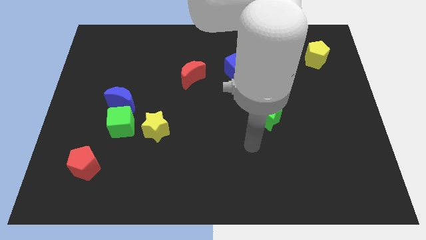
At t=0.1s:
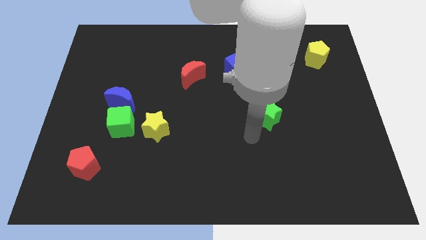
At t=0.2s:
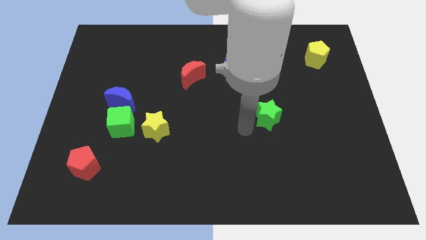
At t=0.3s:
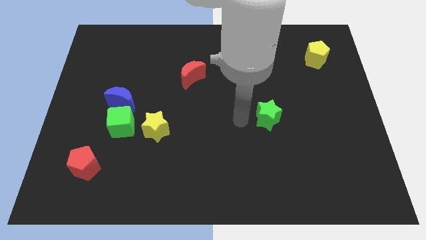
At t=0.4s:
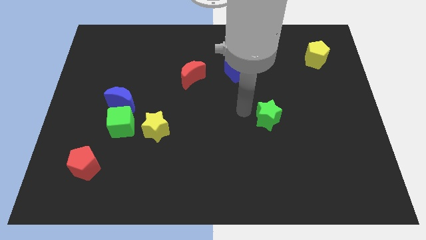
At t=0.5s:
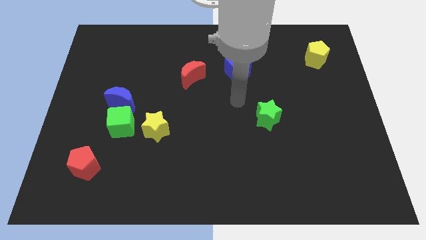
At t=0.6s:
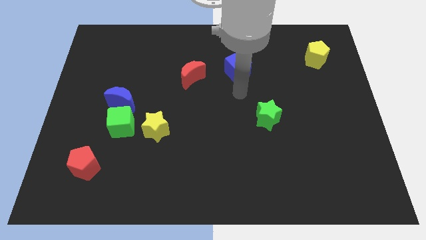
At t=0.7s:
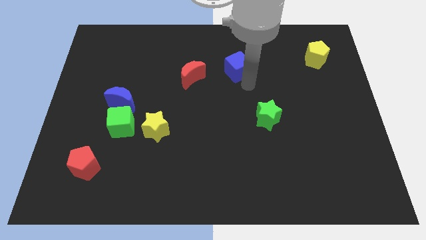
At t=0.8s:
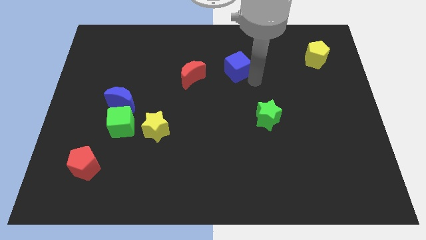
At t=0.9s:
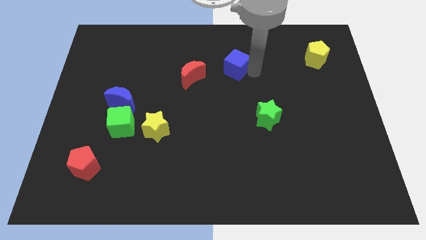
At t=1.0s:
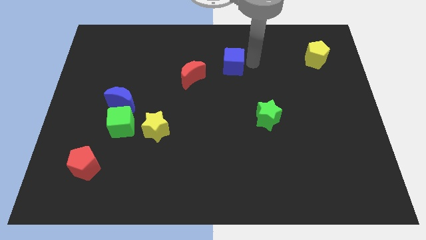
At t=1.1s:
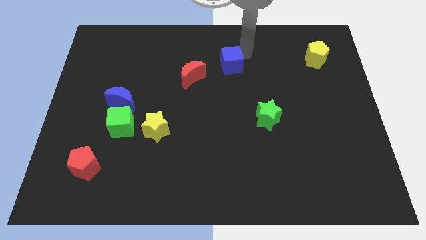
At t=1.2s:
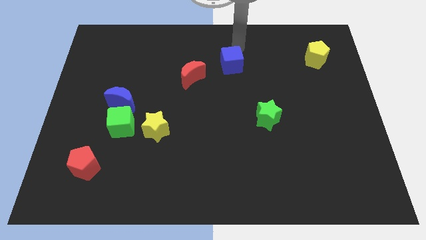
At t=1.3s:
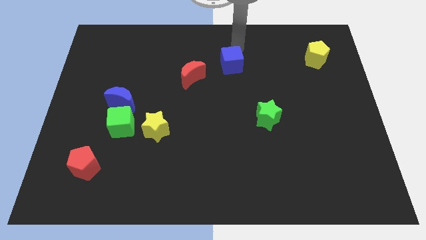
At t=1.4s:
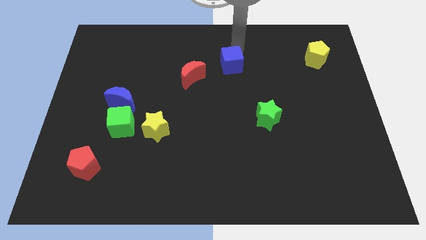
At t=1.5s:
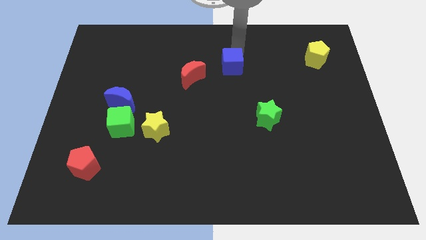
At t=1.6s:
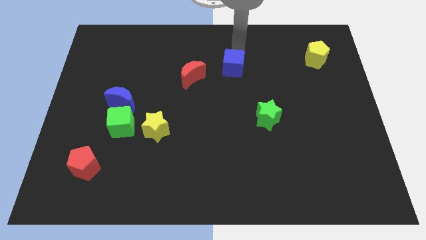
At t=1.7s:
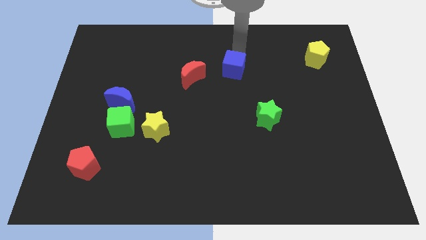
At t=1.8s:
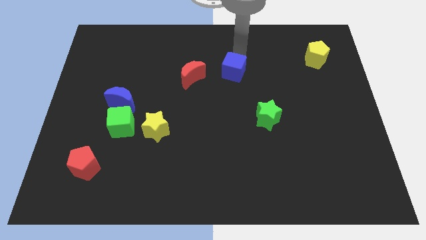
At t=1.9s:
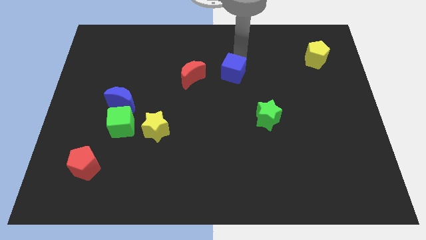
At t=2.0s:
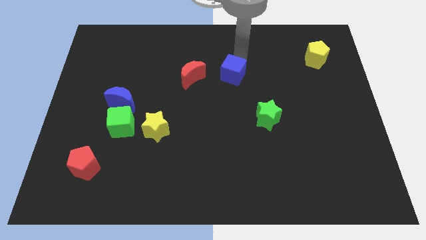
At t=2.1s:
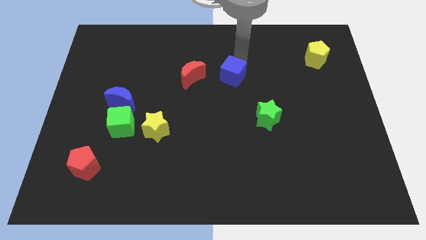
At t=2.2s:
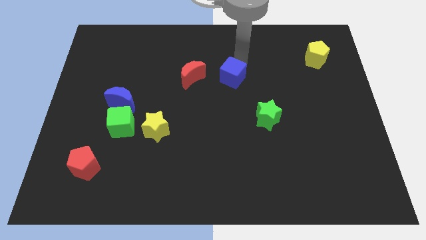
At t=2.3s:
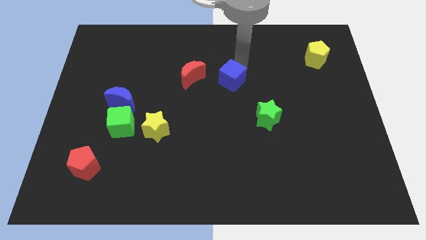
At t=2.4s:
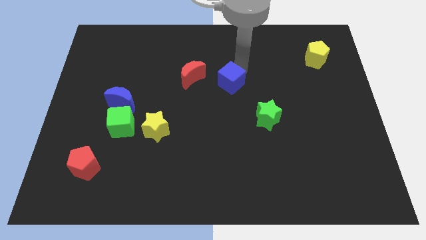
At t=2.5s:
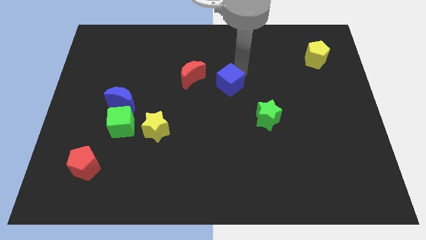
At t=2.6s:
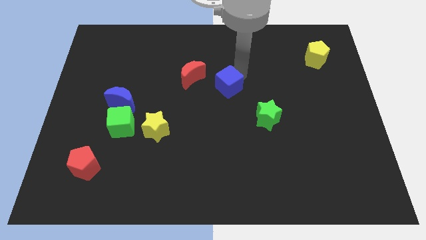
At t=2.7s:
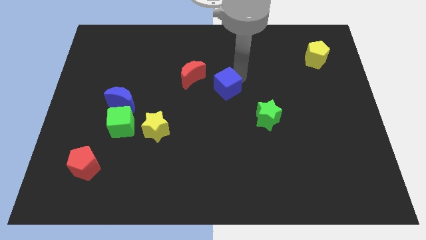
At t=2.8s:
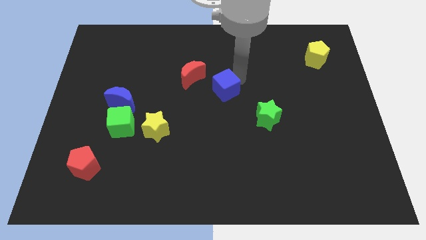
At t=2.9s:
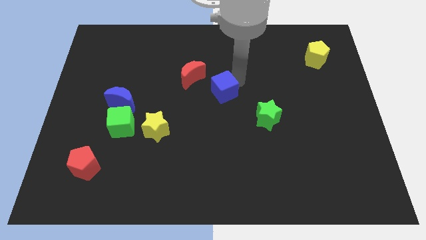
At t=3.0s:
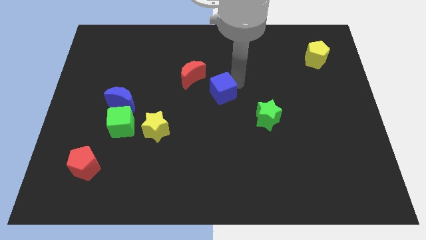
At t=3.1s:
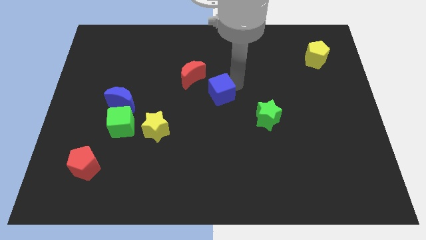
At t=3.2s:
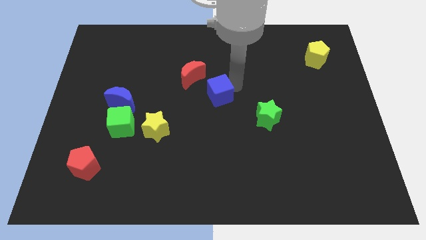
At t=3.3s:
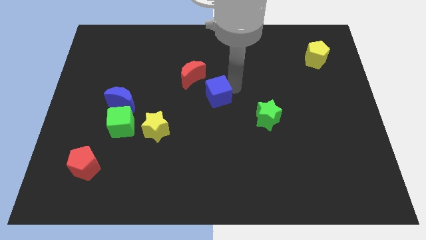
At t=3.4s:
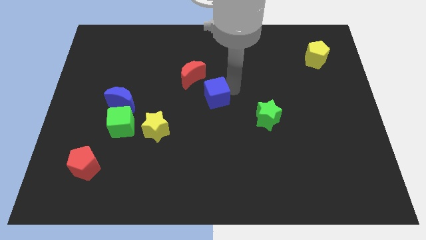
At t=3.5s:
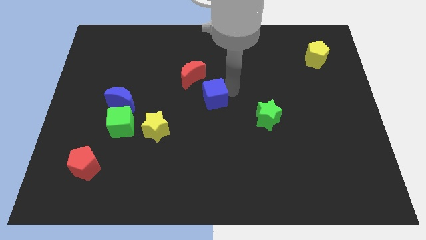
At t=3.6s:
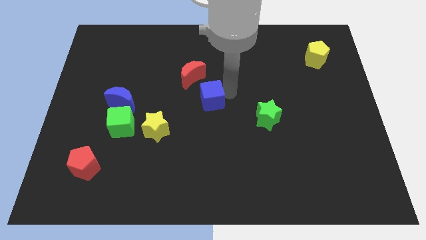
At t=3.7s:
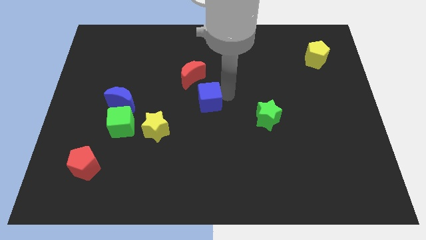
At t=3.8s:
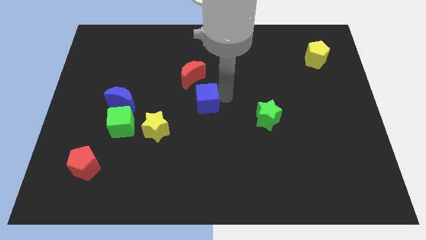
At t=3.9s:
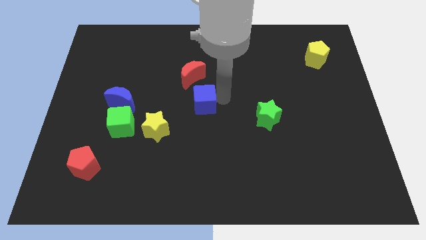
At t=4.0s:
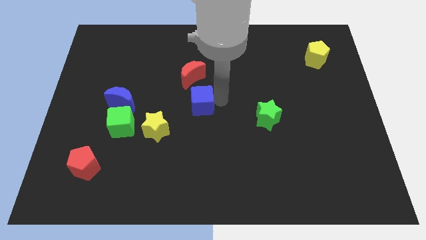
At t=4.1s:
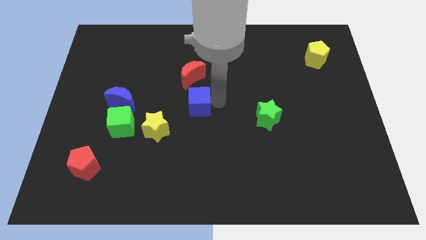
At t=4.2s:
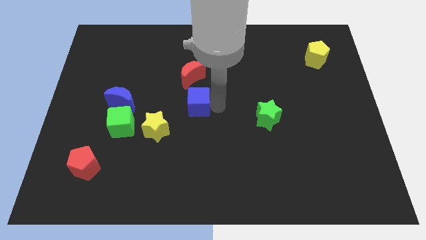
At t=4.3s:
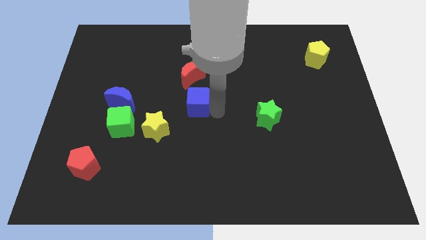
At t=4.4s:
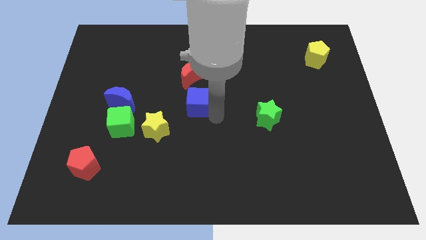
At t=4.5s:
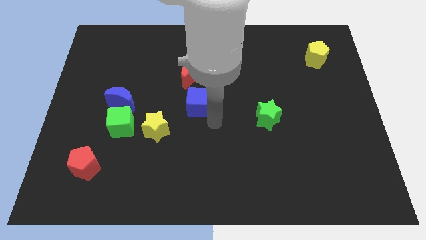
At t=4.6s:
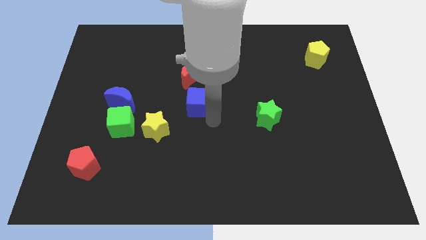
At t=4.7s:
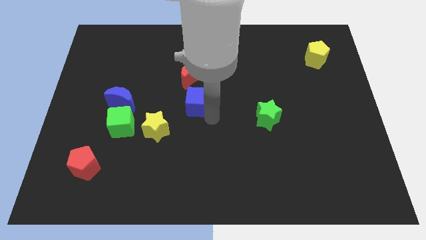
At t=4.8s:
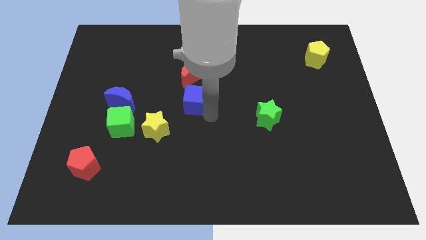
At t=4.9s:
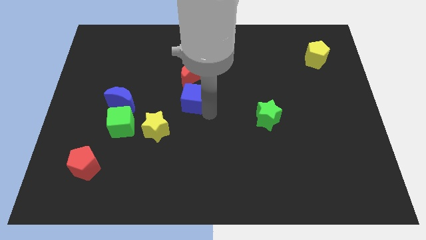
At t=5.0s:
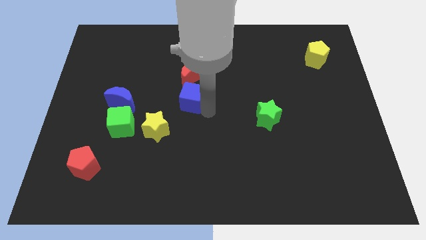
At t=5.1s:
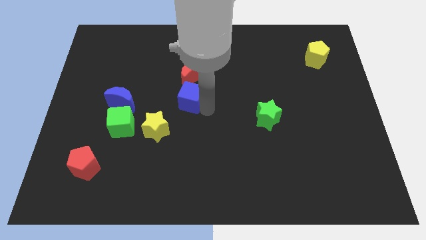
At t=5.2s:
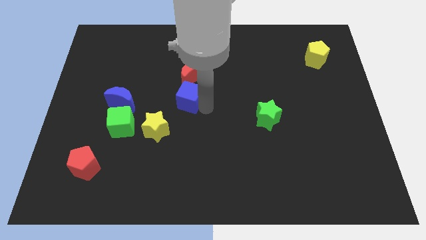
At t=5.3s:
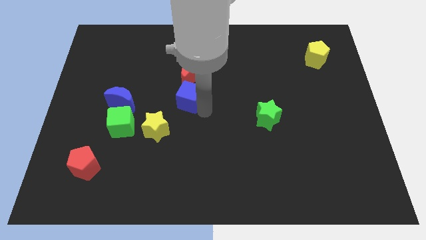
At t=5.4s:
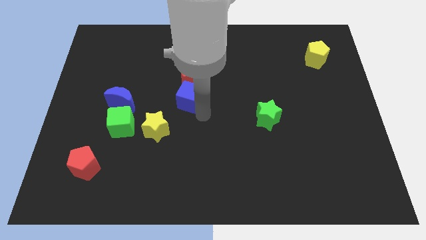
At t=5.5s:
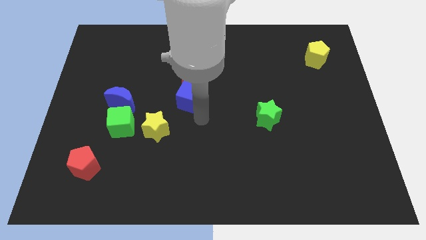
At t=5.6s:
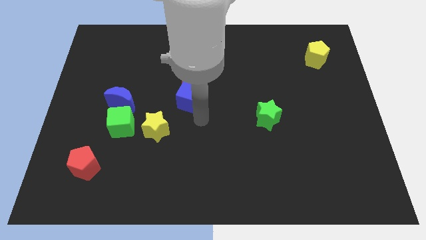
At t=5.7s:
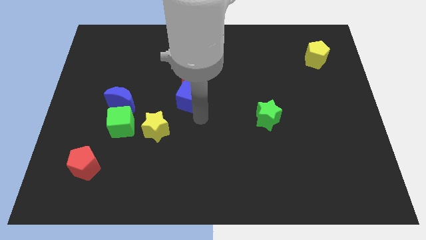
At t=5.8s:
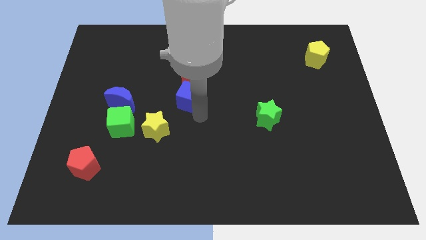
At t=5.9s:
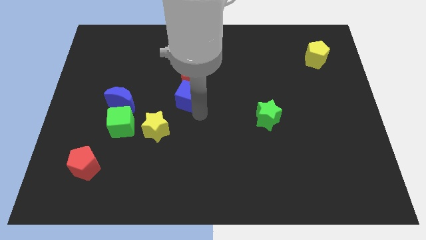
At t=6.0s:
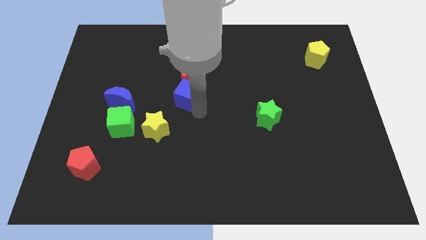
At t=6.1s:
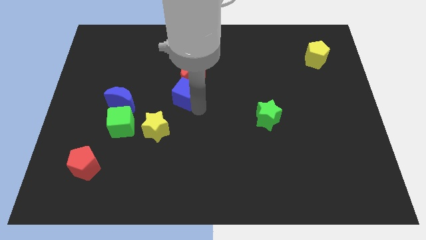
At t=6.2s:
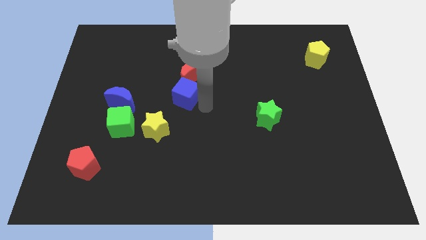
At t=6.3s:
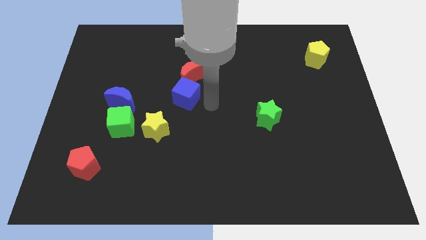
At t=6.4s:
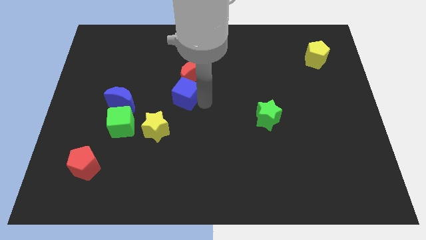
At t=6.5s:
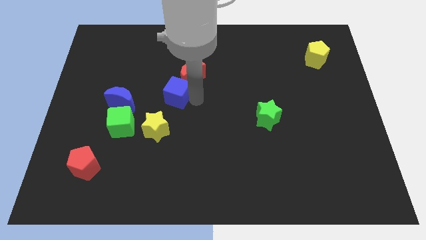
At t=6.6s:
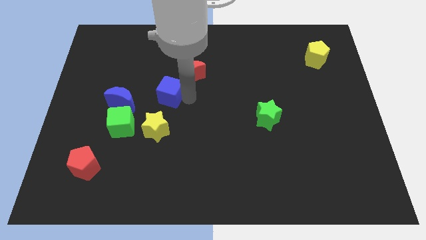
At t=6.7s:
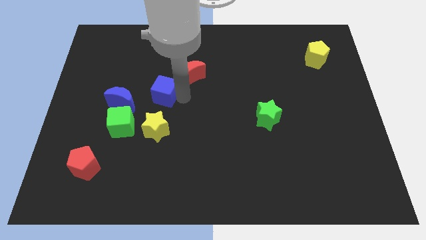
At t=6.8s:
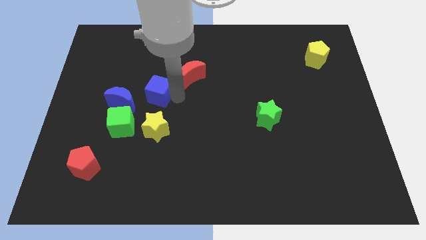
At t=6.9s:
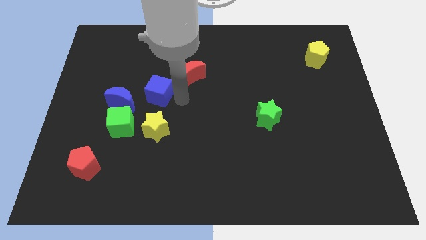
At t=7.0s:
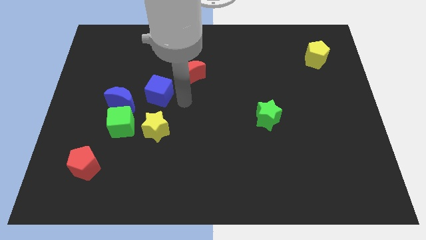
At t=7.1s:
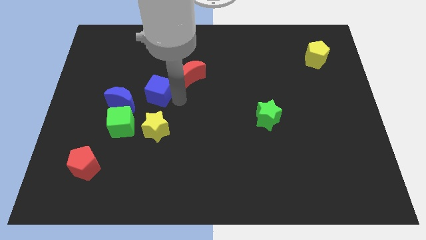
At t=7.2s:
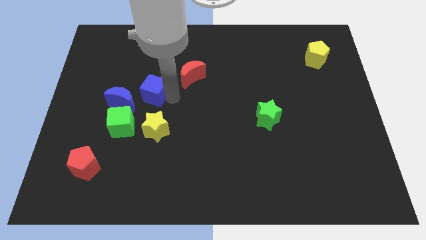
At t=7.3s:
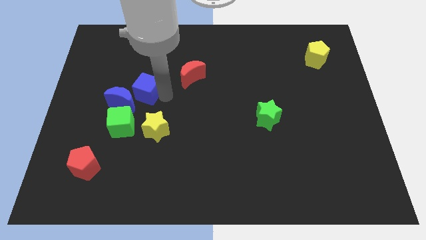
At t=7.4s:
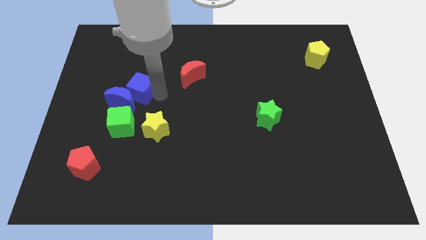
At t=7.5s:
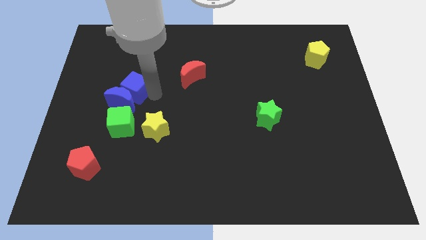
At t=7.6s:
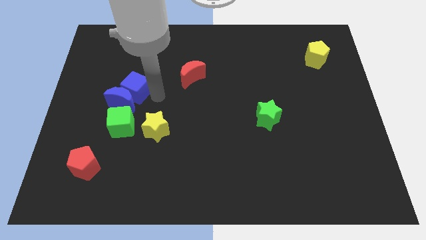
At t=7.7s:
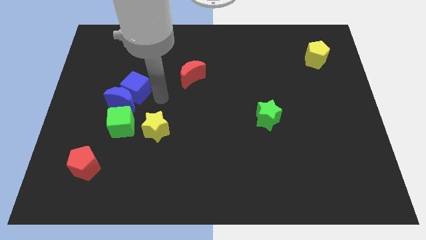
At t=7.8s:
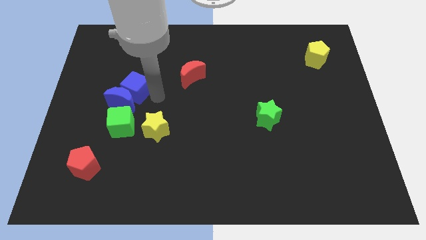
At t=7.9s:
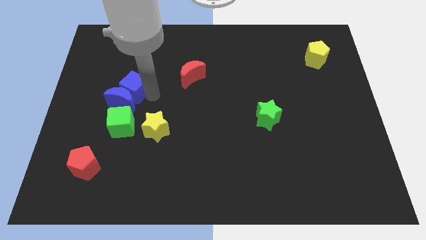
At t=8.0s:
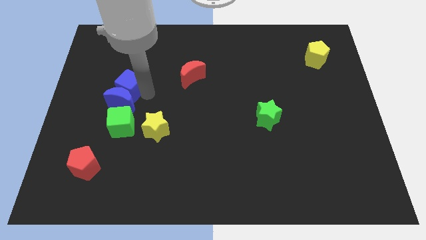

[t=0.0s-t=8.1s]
push the blue cube to the top left side of the blue moon
